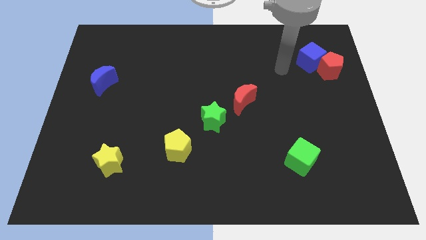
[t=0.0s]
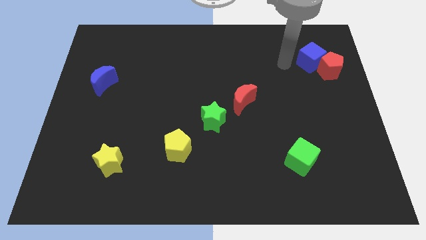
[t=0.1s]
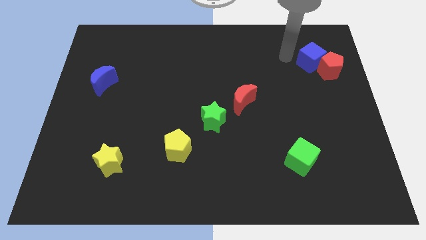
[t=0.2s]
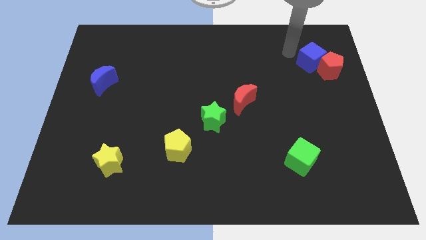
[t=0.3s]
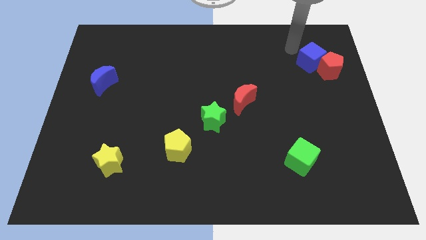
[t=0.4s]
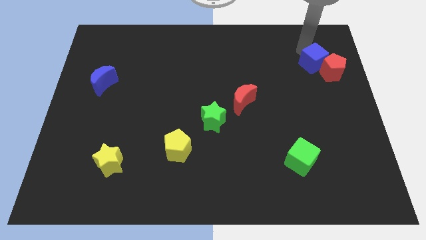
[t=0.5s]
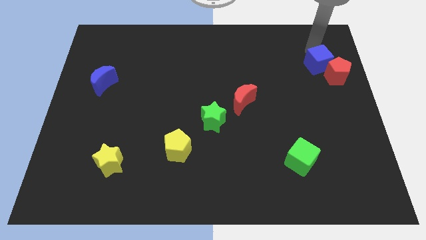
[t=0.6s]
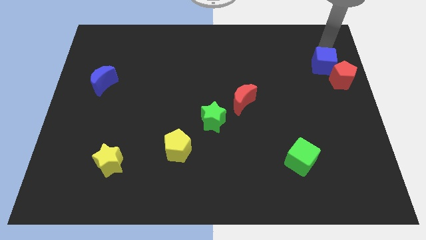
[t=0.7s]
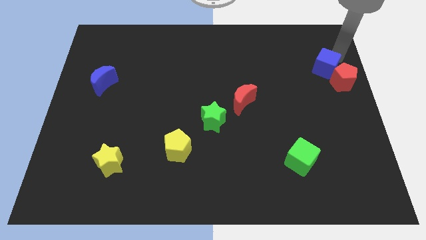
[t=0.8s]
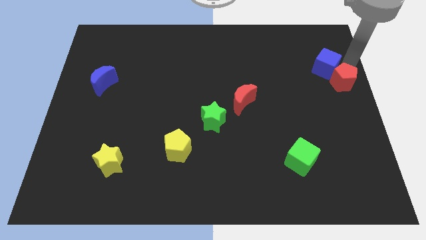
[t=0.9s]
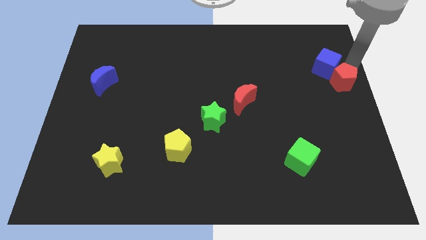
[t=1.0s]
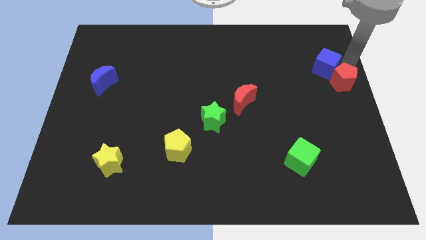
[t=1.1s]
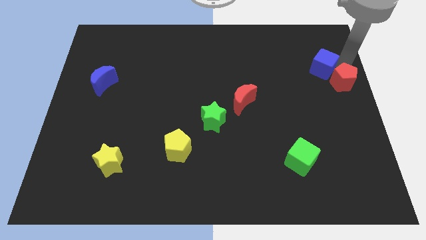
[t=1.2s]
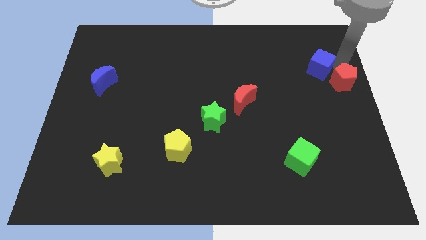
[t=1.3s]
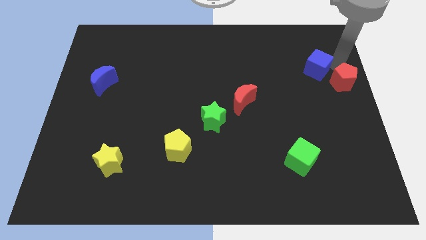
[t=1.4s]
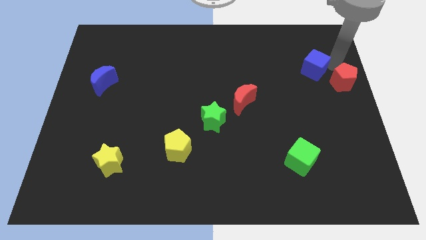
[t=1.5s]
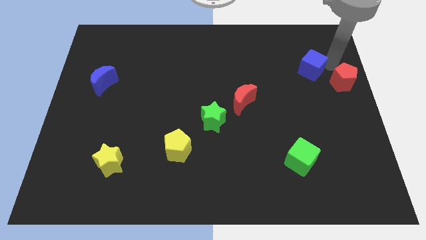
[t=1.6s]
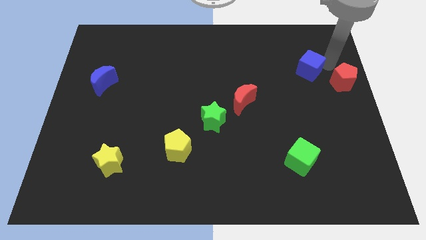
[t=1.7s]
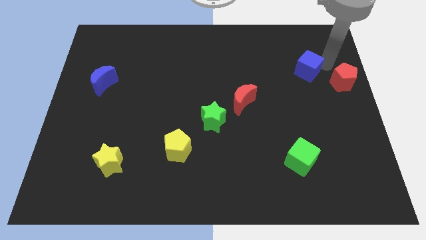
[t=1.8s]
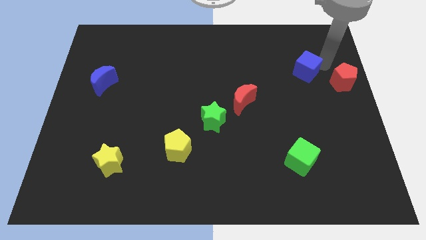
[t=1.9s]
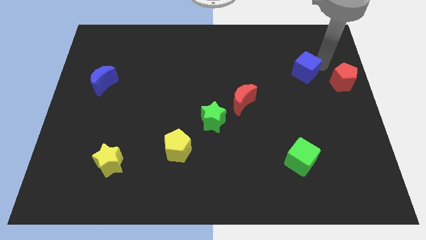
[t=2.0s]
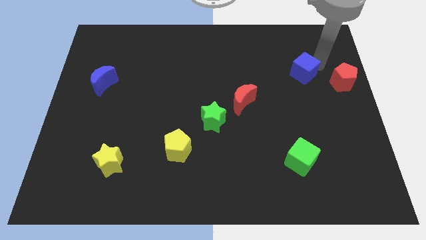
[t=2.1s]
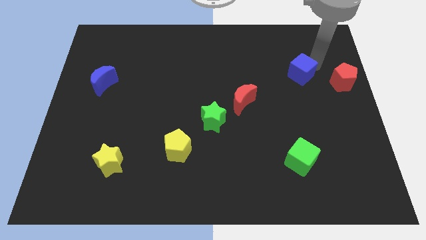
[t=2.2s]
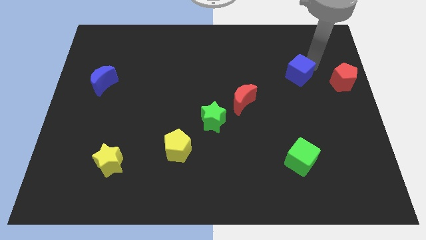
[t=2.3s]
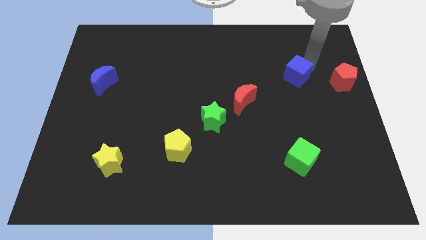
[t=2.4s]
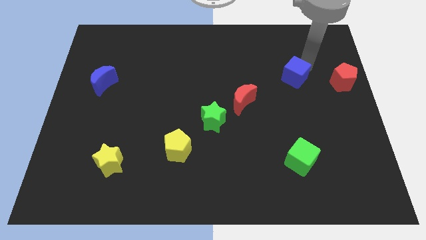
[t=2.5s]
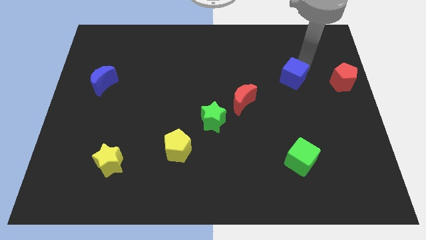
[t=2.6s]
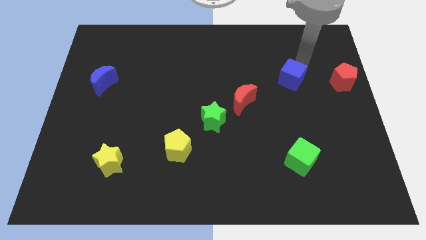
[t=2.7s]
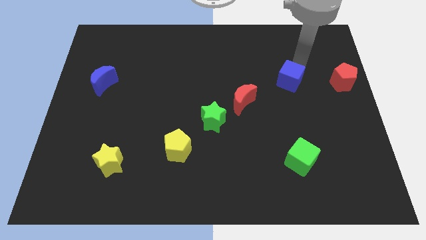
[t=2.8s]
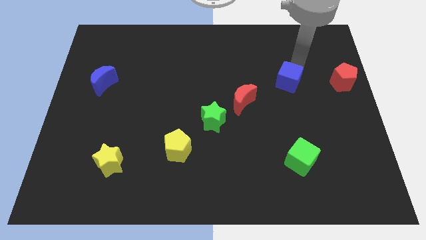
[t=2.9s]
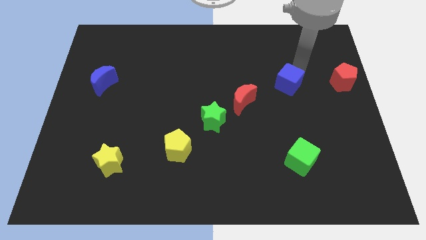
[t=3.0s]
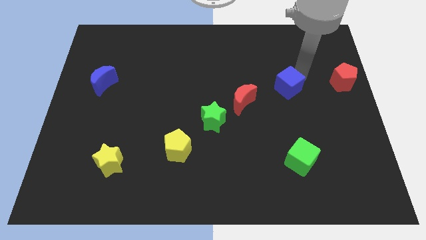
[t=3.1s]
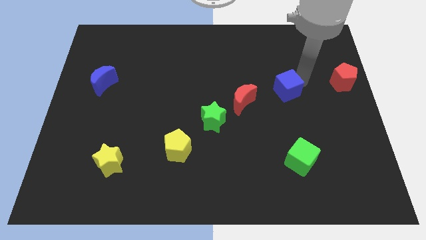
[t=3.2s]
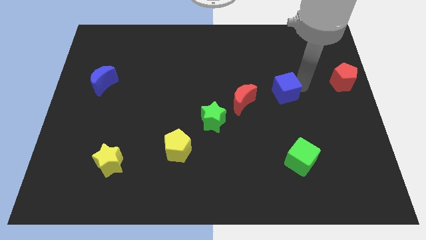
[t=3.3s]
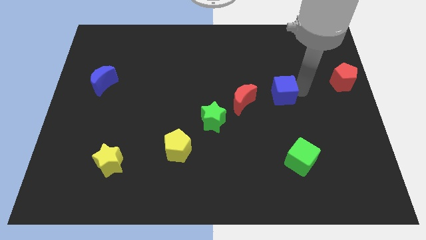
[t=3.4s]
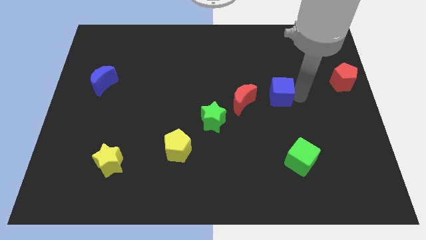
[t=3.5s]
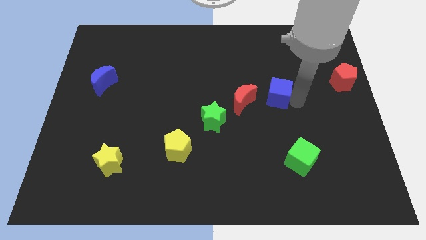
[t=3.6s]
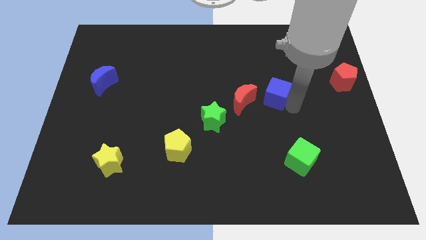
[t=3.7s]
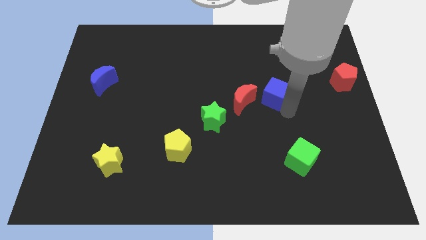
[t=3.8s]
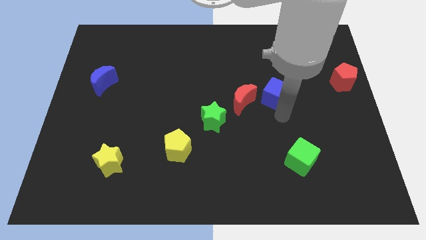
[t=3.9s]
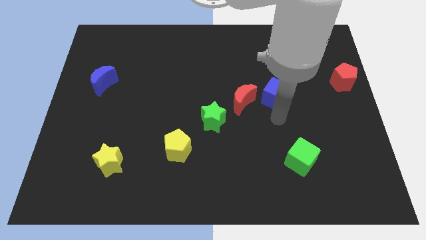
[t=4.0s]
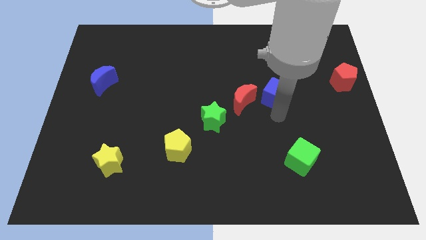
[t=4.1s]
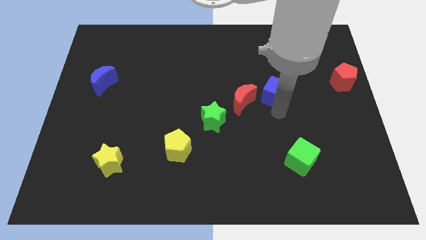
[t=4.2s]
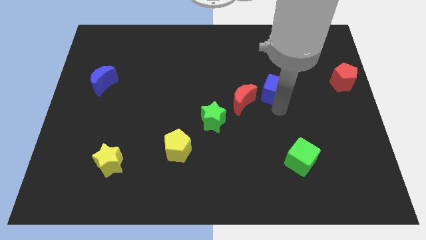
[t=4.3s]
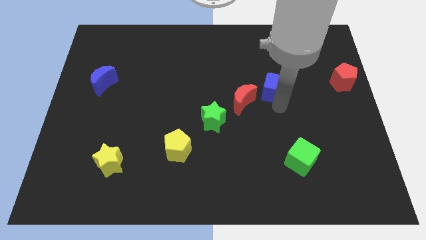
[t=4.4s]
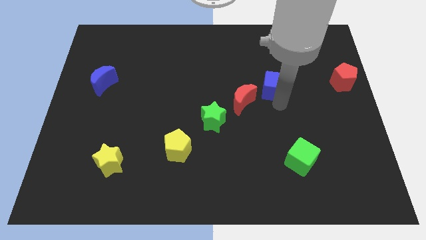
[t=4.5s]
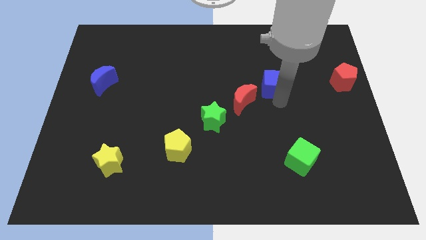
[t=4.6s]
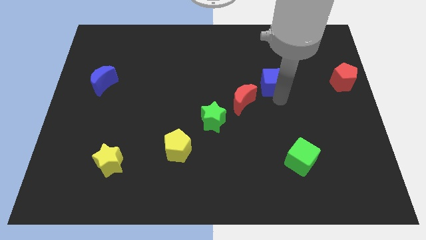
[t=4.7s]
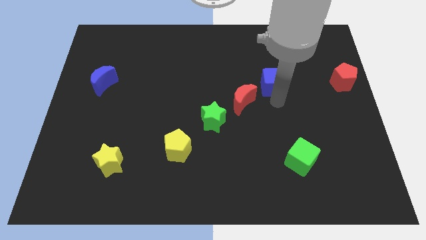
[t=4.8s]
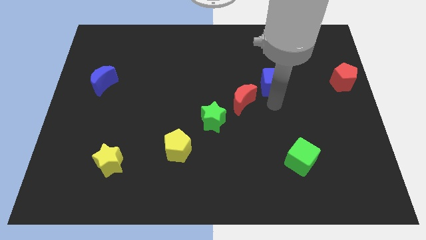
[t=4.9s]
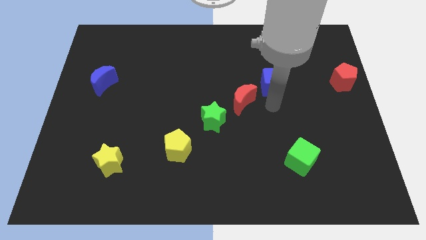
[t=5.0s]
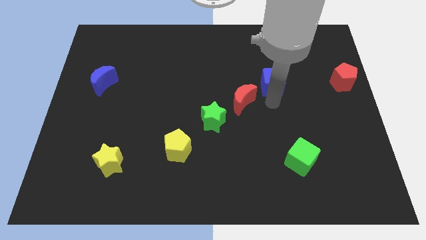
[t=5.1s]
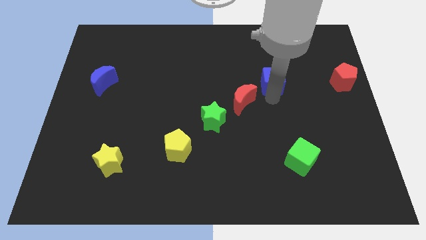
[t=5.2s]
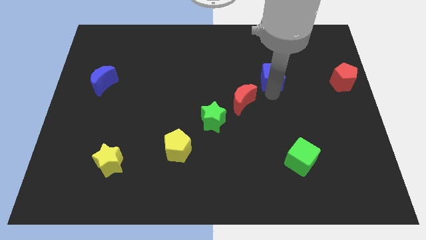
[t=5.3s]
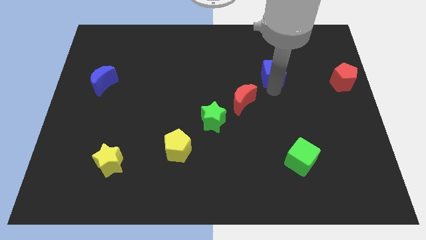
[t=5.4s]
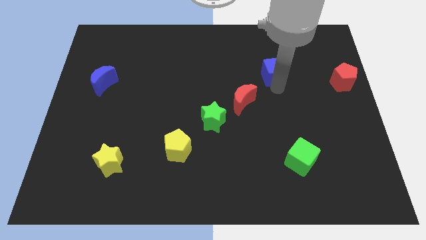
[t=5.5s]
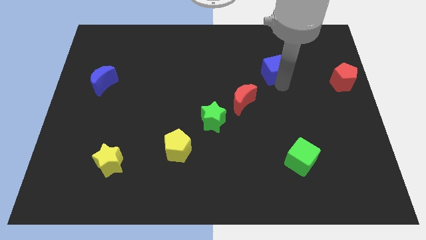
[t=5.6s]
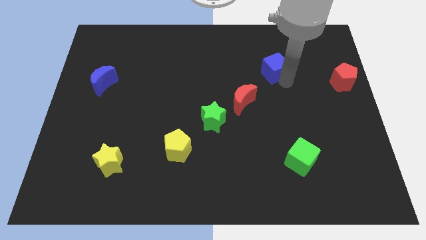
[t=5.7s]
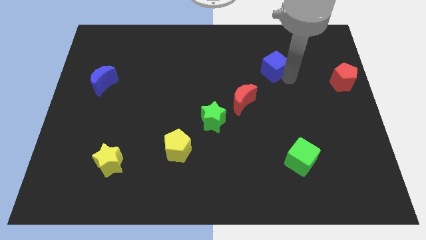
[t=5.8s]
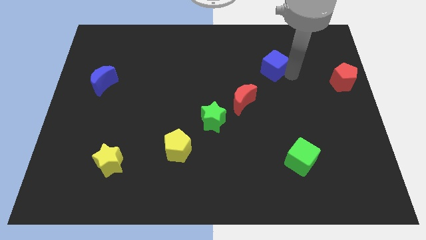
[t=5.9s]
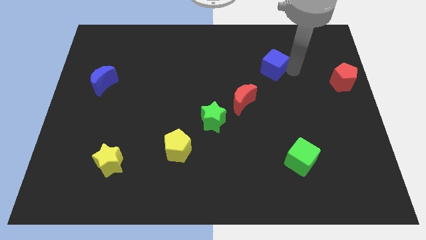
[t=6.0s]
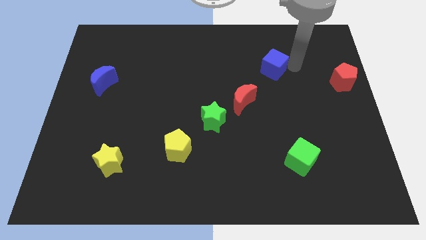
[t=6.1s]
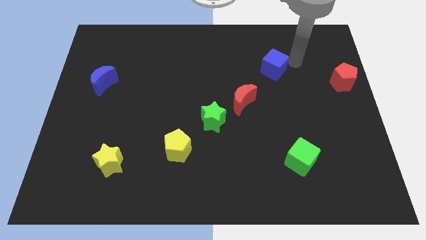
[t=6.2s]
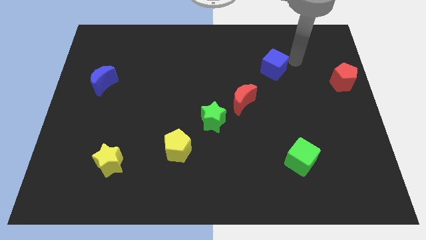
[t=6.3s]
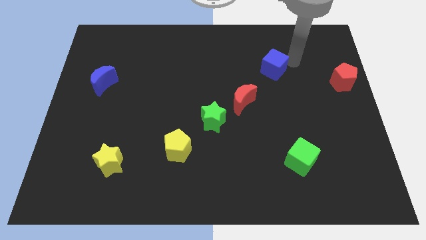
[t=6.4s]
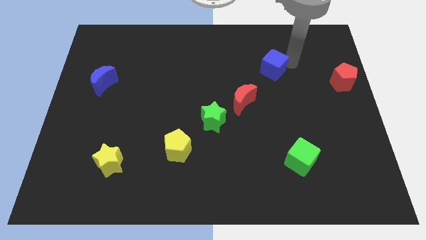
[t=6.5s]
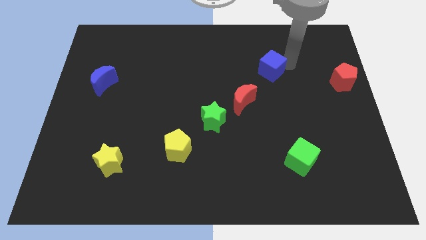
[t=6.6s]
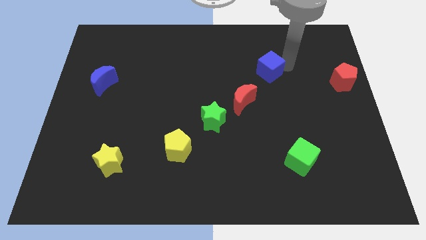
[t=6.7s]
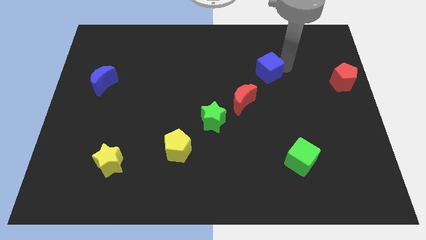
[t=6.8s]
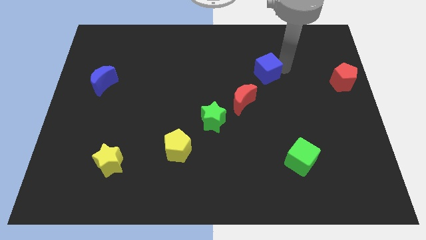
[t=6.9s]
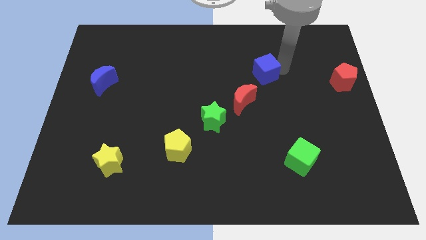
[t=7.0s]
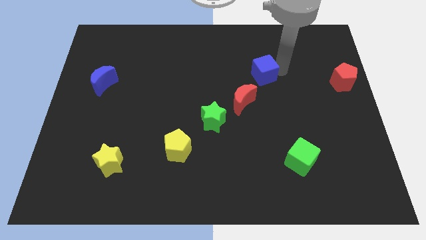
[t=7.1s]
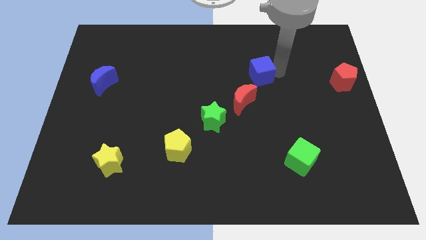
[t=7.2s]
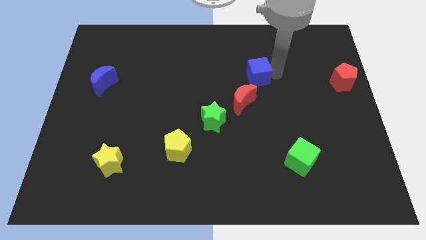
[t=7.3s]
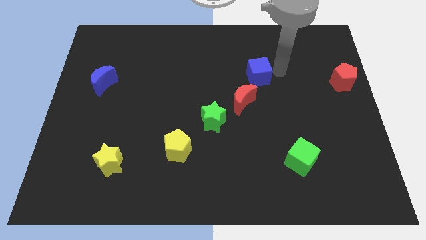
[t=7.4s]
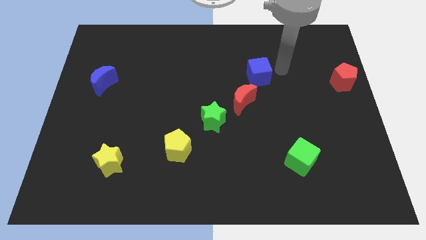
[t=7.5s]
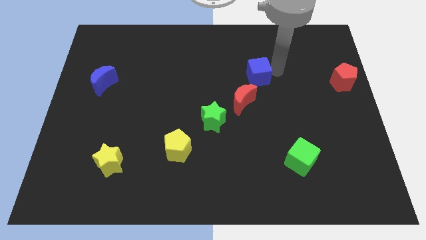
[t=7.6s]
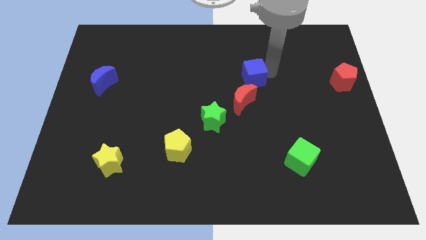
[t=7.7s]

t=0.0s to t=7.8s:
put the blue cube to the center
